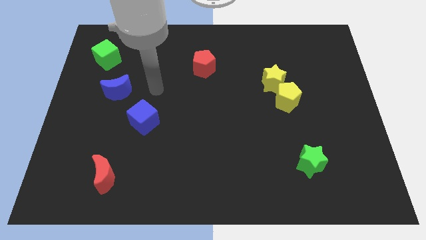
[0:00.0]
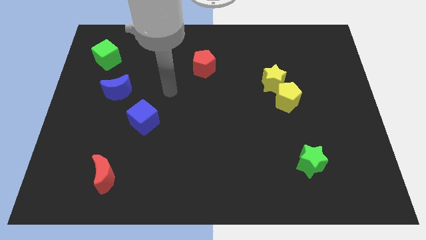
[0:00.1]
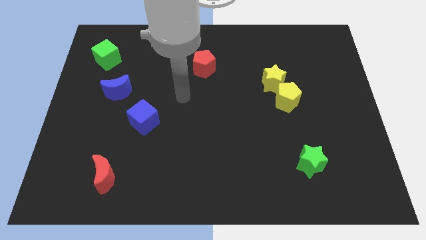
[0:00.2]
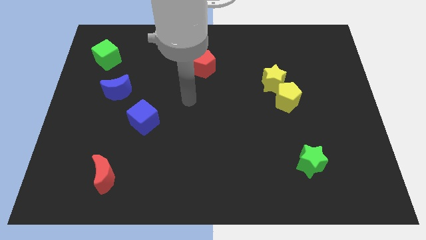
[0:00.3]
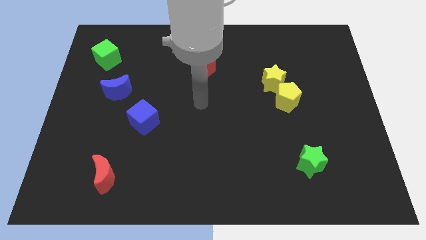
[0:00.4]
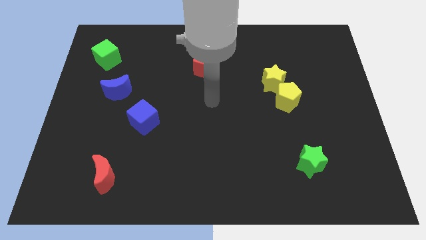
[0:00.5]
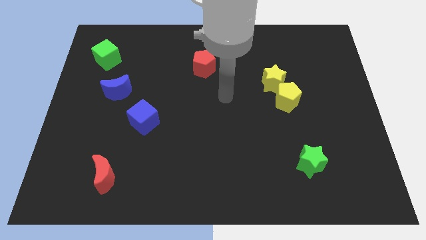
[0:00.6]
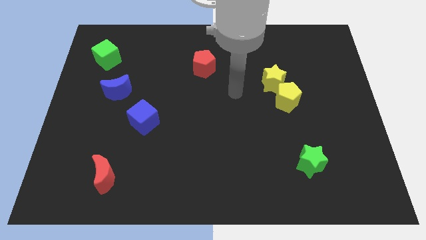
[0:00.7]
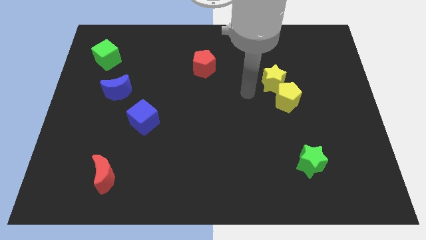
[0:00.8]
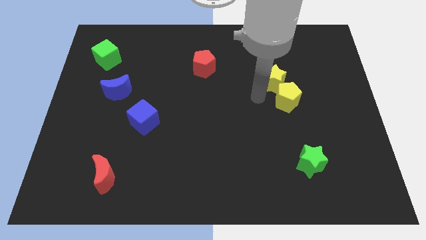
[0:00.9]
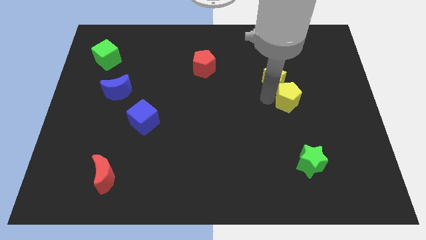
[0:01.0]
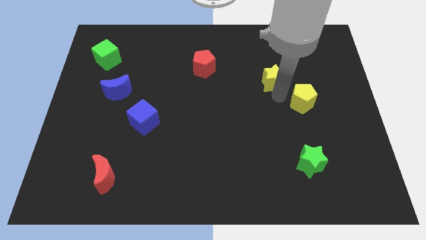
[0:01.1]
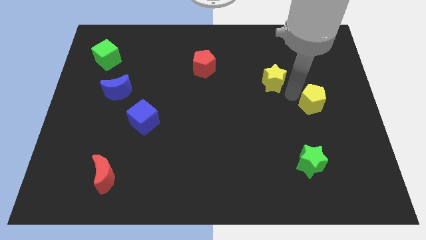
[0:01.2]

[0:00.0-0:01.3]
move the yellow star away from the yellow pentagon

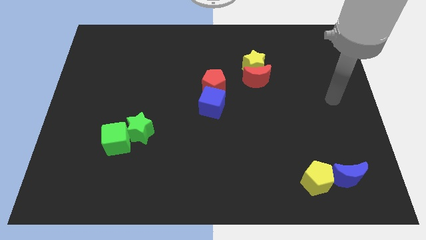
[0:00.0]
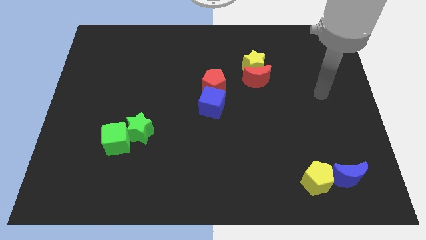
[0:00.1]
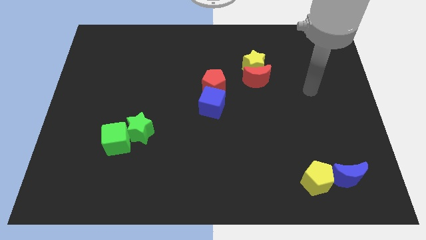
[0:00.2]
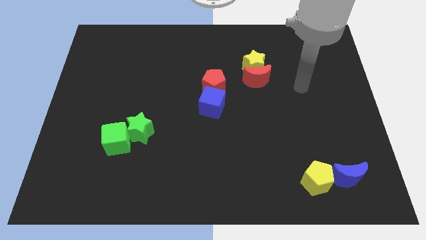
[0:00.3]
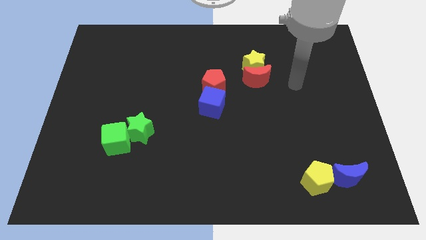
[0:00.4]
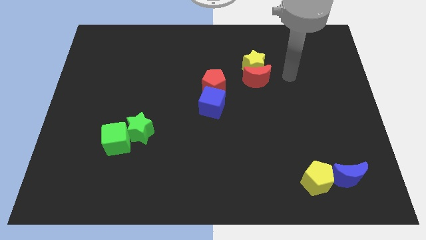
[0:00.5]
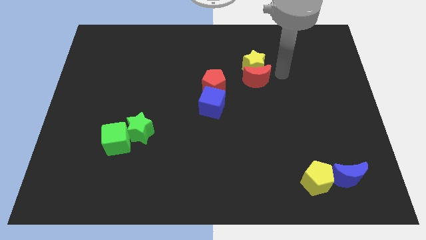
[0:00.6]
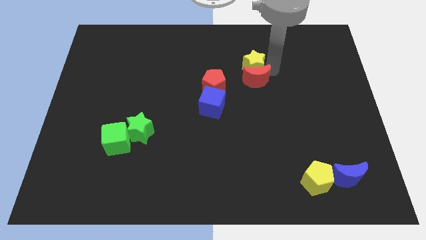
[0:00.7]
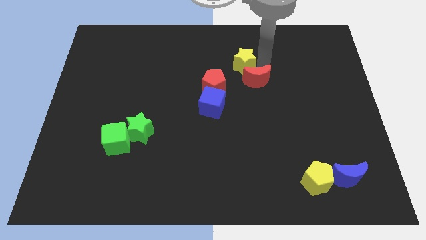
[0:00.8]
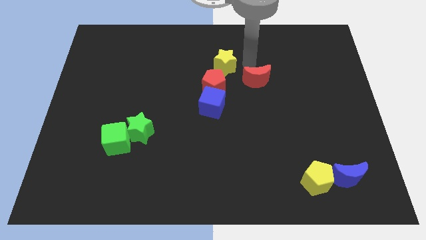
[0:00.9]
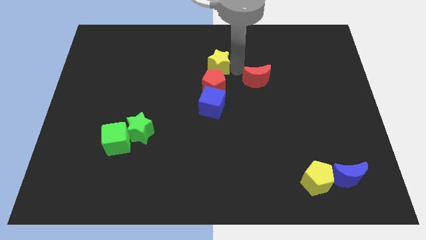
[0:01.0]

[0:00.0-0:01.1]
separate the red moon from the yellow star

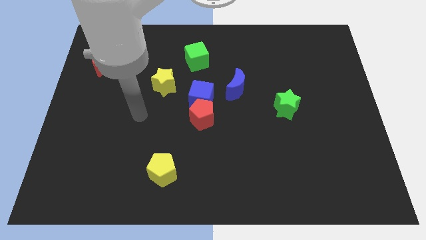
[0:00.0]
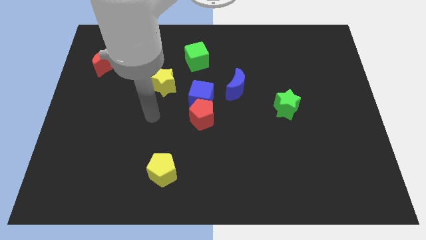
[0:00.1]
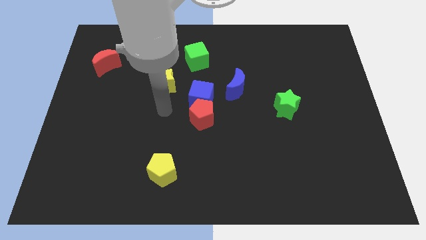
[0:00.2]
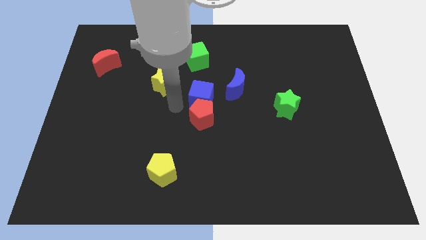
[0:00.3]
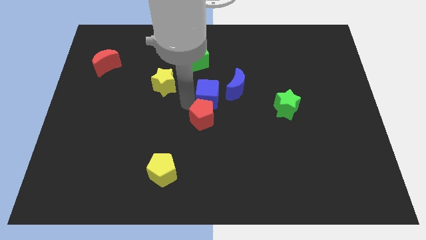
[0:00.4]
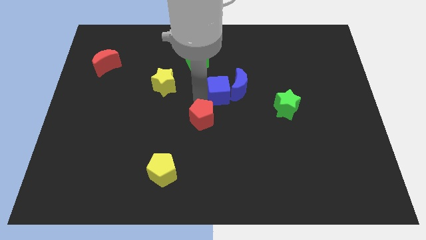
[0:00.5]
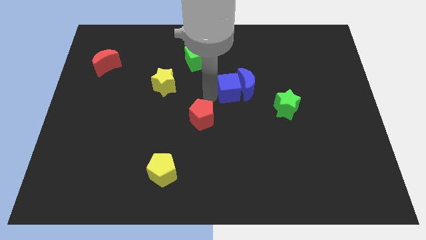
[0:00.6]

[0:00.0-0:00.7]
separate the red pentagon from the blue cube

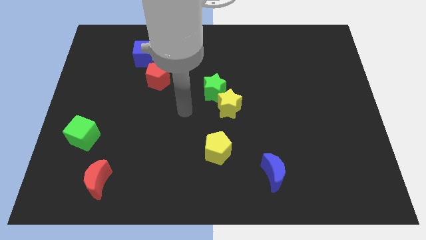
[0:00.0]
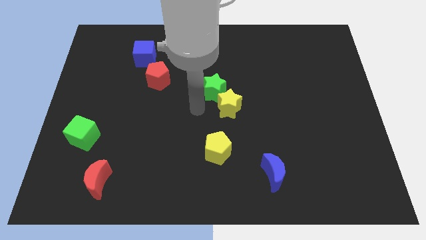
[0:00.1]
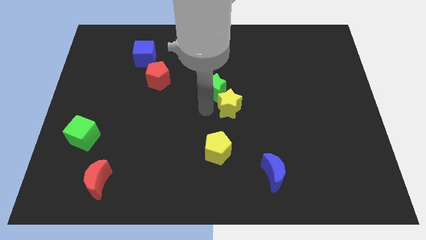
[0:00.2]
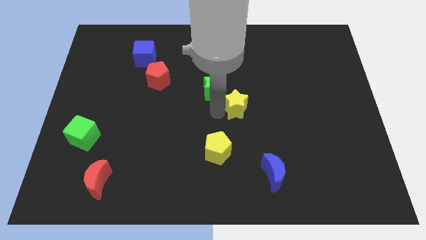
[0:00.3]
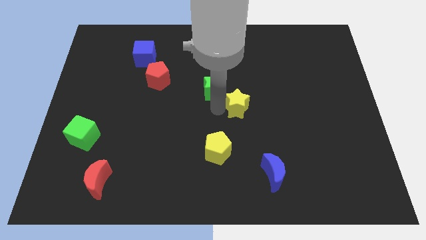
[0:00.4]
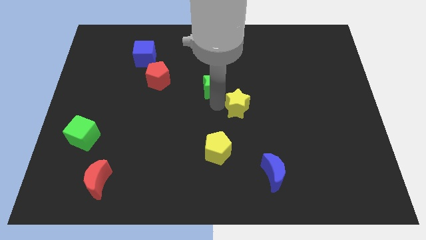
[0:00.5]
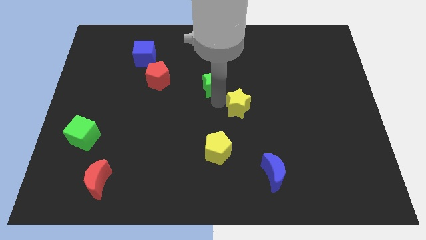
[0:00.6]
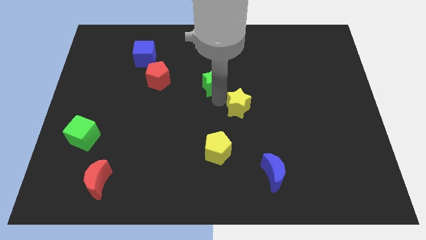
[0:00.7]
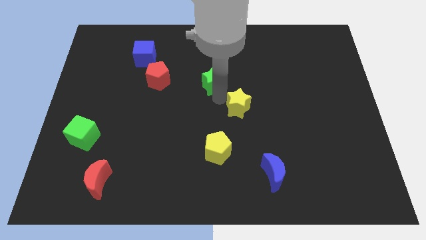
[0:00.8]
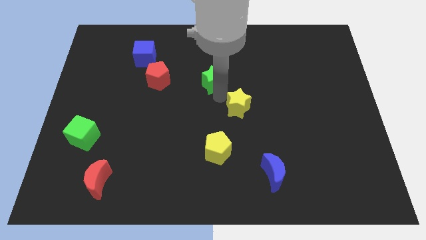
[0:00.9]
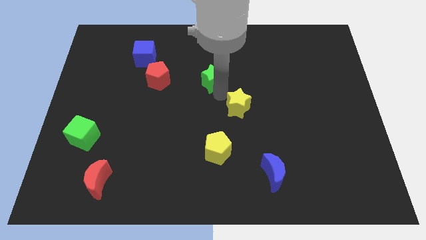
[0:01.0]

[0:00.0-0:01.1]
move the green star away from the yellow star

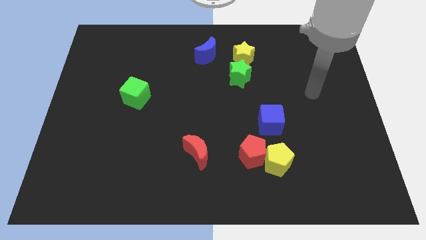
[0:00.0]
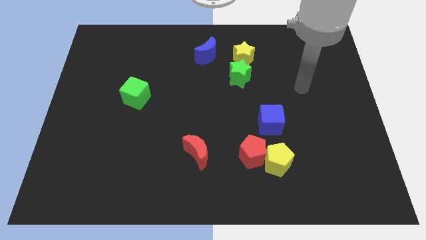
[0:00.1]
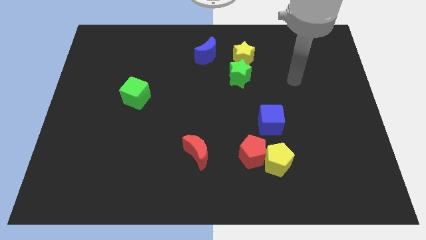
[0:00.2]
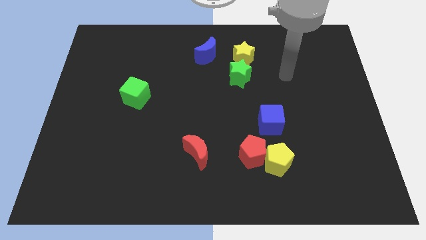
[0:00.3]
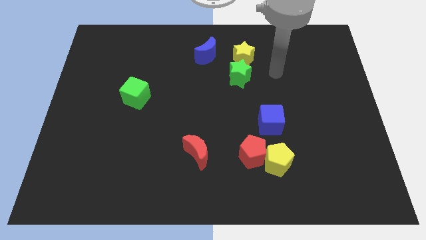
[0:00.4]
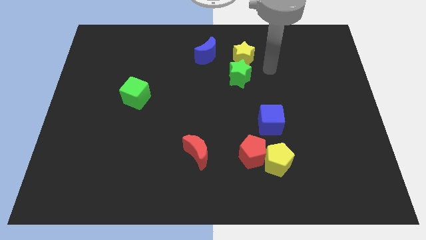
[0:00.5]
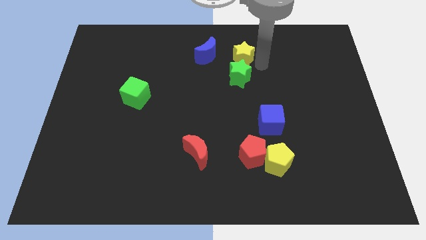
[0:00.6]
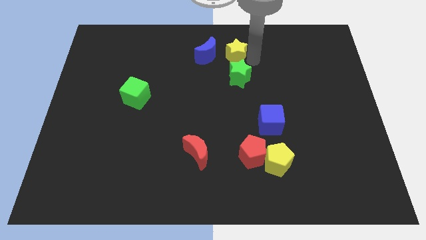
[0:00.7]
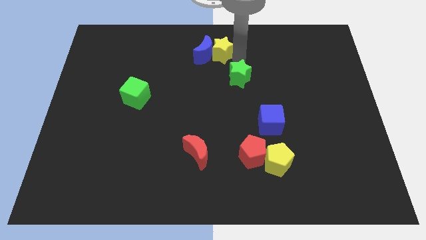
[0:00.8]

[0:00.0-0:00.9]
pull the green star apart from the yellow star

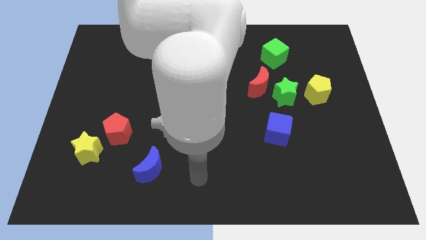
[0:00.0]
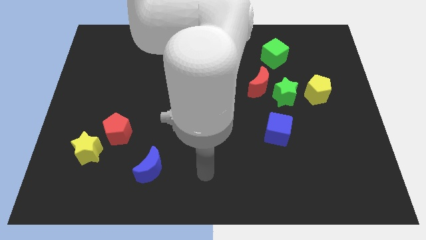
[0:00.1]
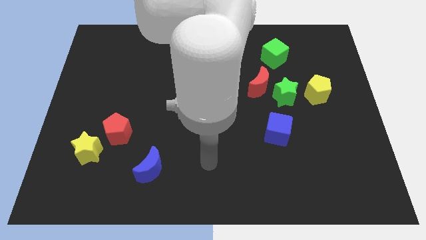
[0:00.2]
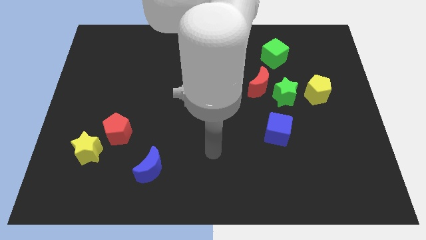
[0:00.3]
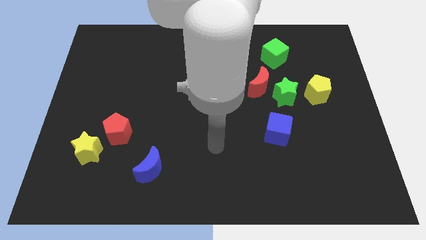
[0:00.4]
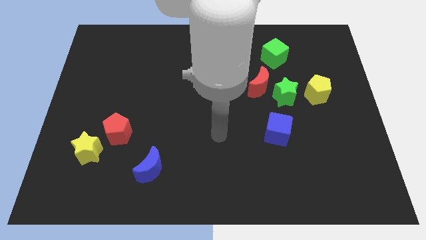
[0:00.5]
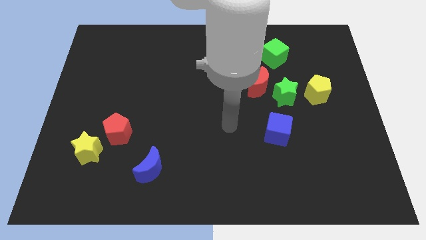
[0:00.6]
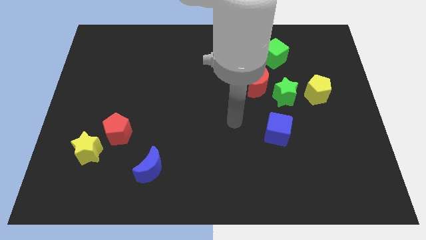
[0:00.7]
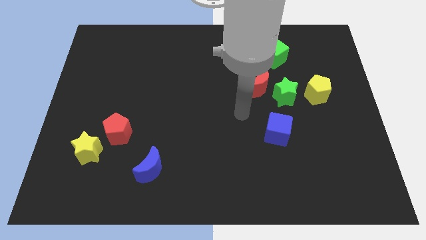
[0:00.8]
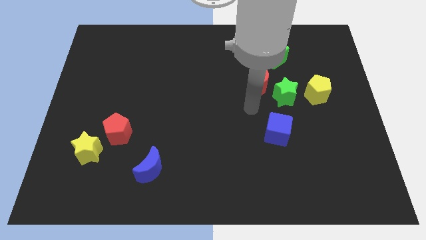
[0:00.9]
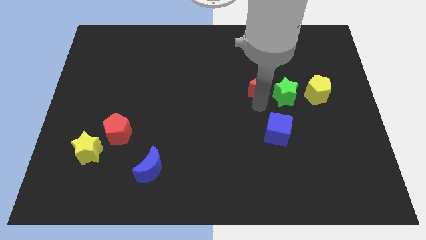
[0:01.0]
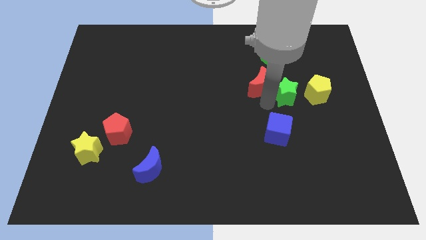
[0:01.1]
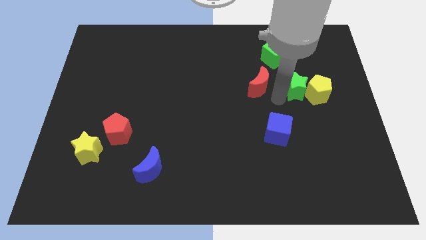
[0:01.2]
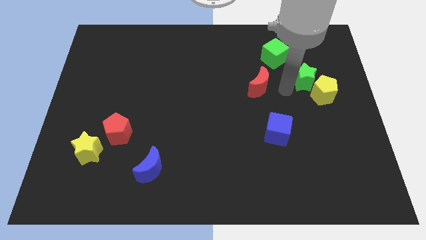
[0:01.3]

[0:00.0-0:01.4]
pull the red moon apart from the green star

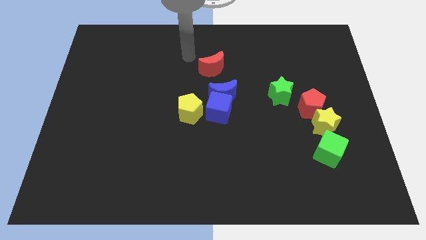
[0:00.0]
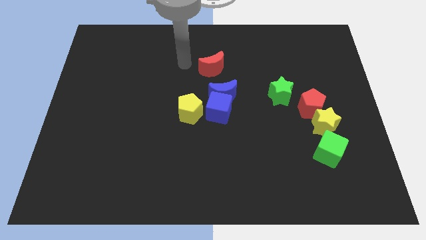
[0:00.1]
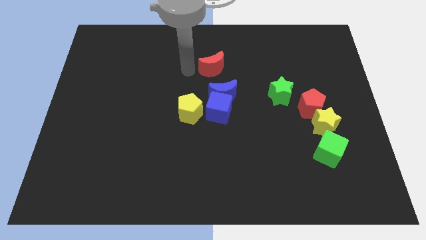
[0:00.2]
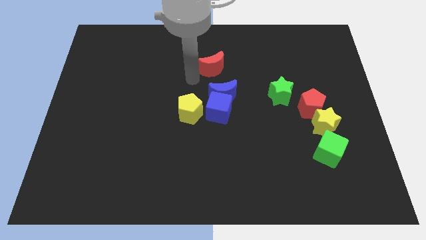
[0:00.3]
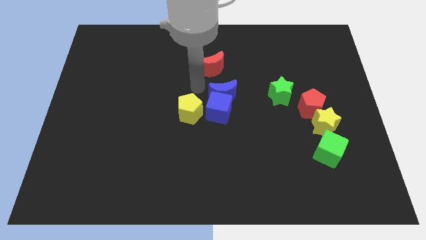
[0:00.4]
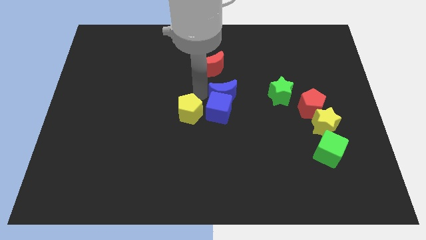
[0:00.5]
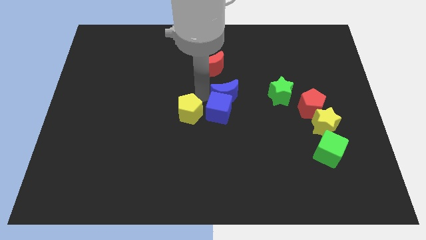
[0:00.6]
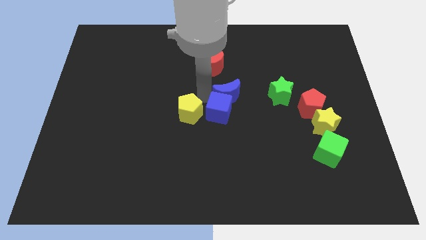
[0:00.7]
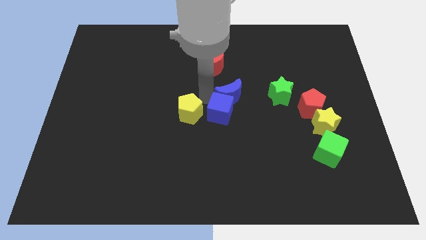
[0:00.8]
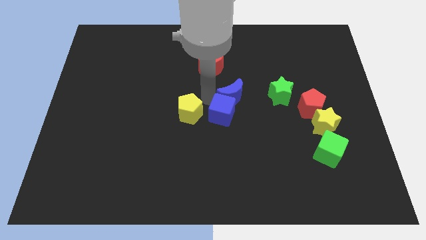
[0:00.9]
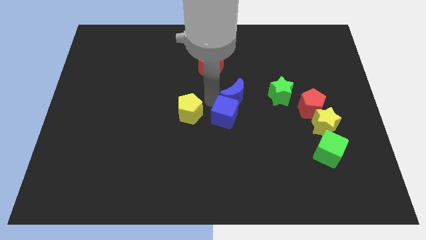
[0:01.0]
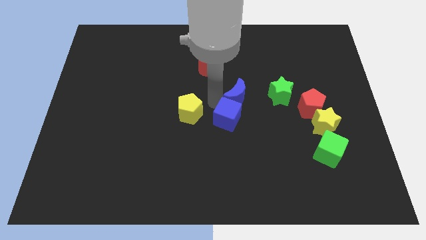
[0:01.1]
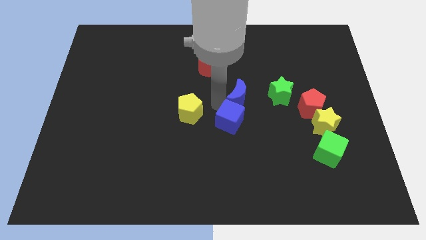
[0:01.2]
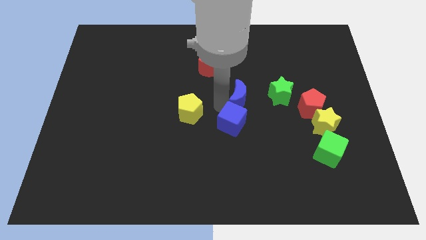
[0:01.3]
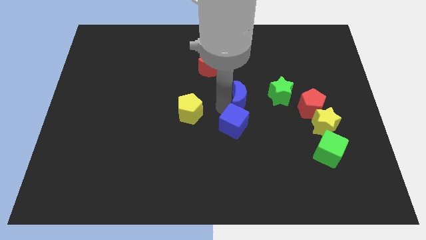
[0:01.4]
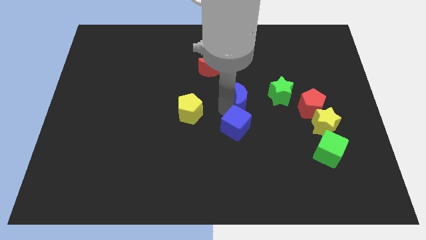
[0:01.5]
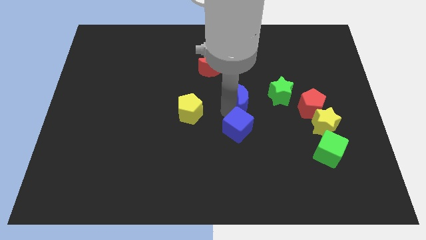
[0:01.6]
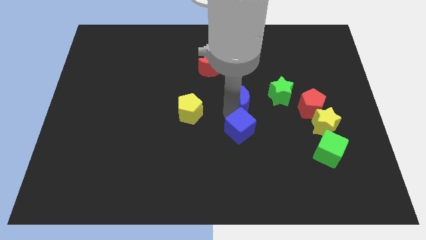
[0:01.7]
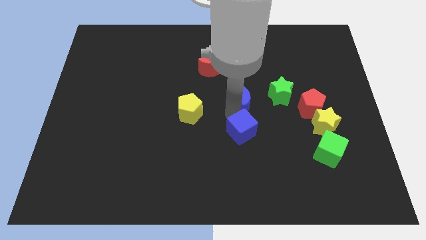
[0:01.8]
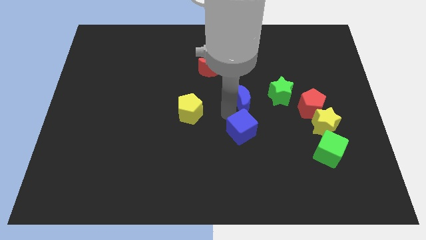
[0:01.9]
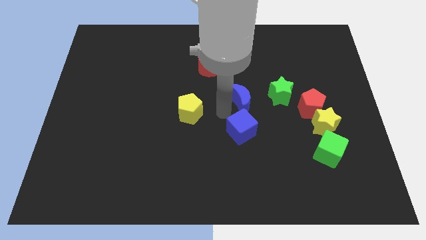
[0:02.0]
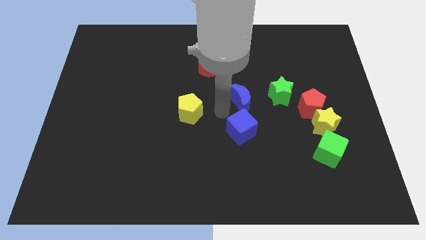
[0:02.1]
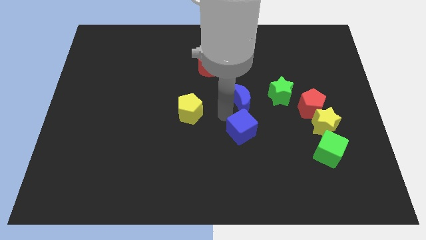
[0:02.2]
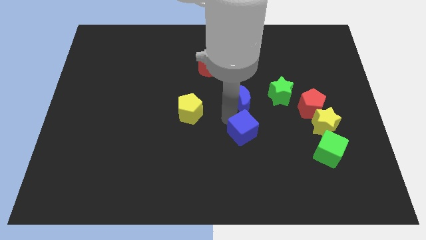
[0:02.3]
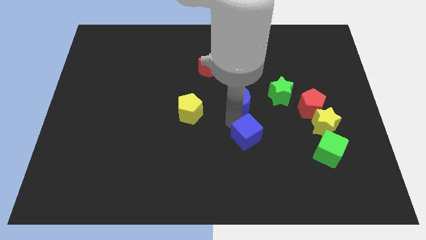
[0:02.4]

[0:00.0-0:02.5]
pull the blue cube apart from the blue moon and yellow pentagon

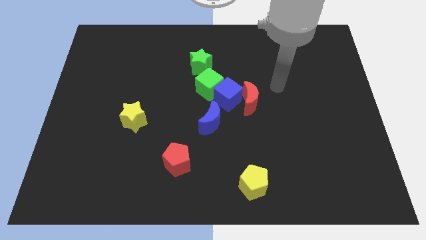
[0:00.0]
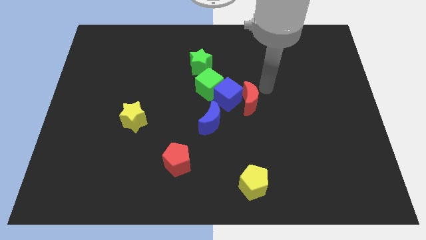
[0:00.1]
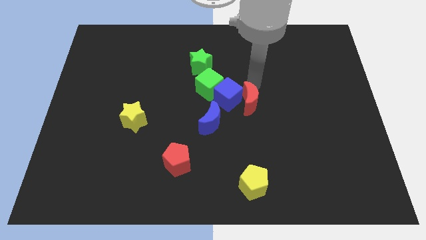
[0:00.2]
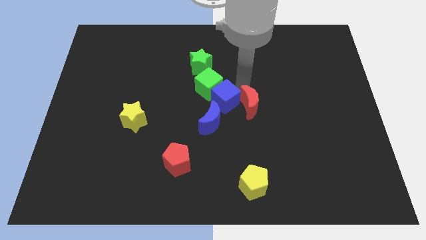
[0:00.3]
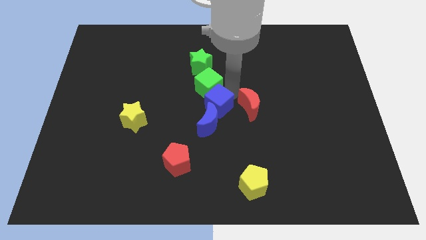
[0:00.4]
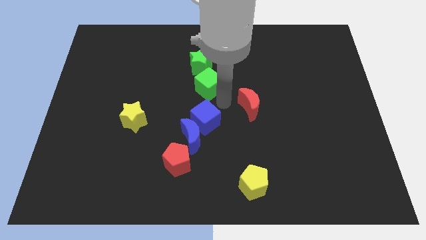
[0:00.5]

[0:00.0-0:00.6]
pull the red moon apart from the blue cube
